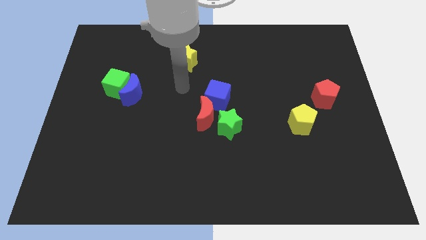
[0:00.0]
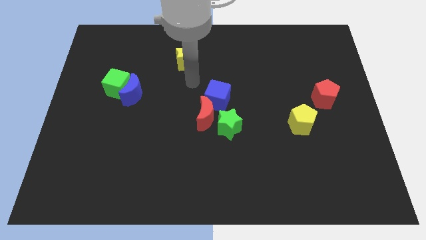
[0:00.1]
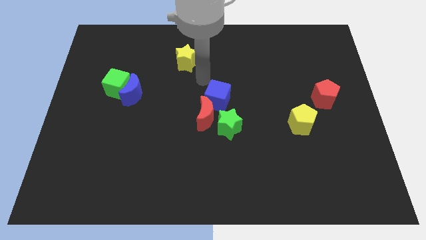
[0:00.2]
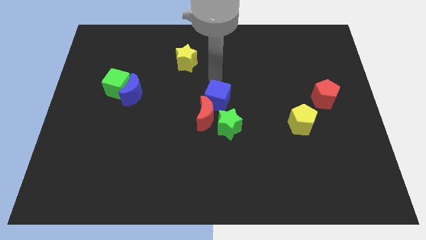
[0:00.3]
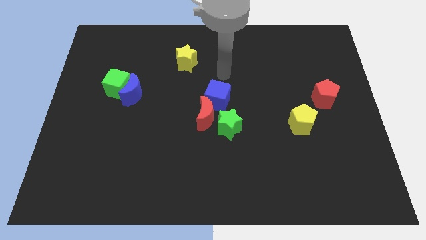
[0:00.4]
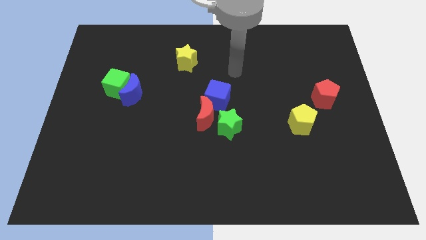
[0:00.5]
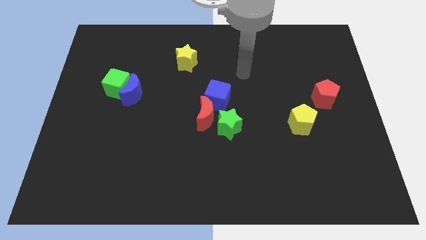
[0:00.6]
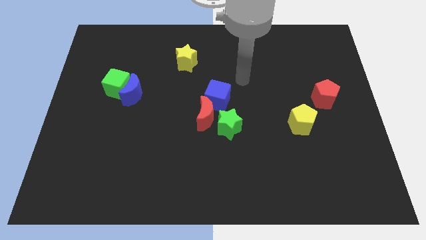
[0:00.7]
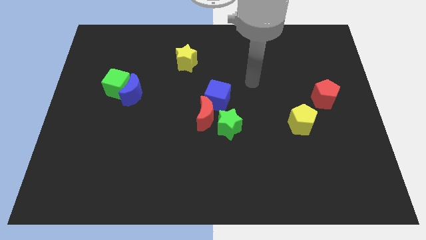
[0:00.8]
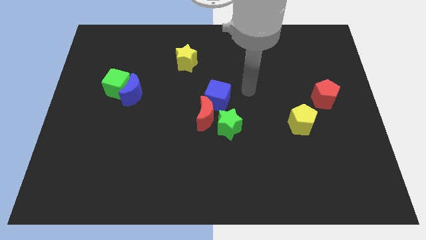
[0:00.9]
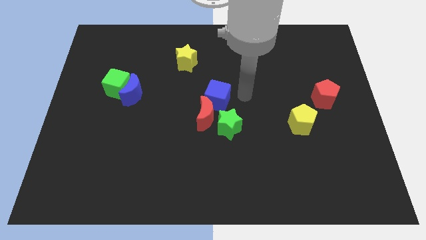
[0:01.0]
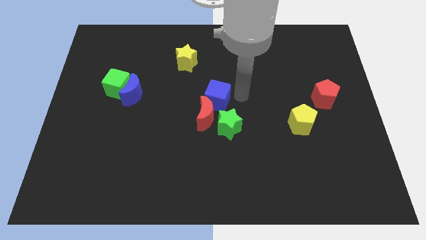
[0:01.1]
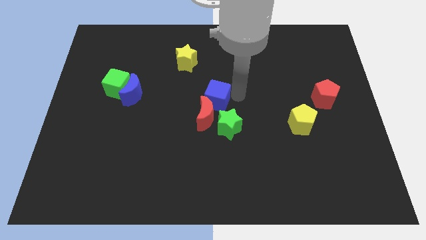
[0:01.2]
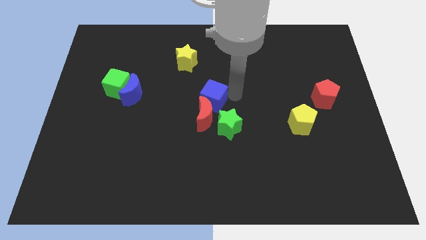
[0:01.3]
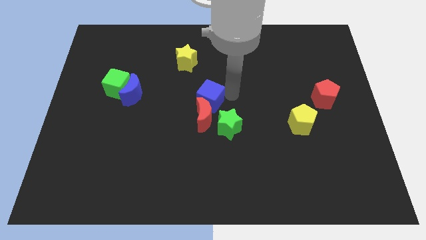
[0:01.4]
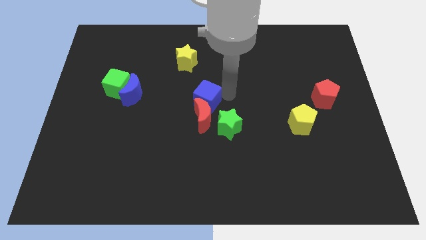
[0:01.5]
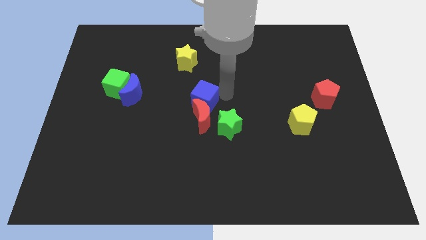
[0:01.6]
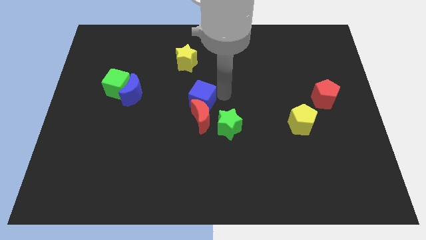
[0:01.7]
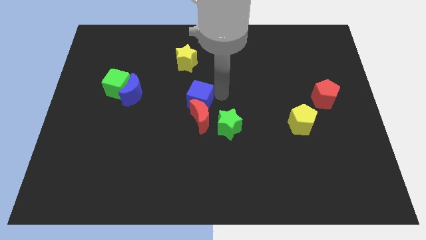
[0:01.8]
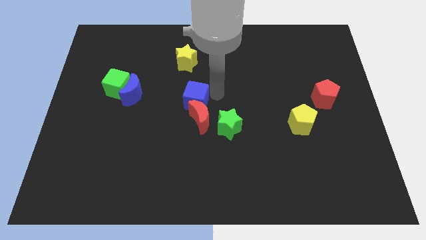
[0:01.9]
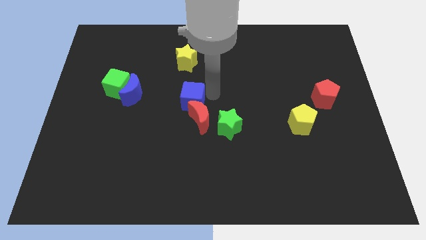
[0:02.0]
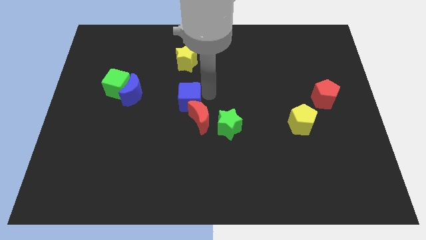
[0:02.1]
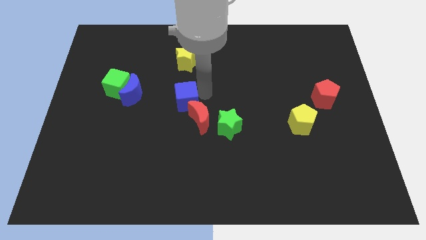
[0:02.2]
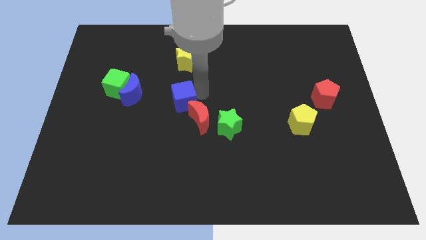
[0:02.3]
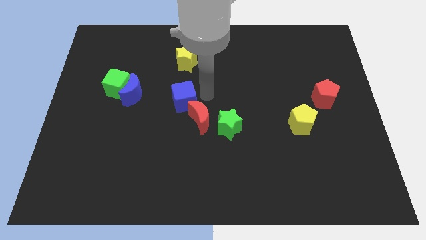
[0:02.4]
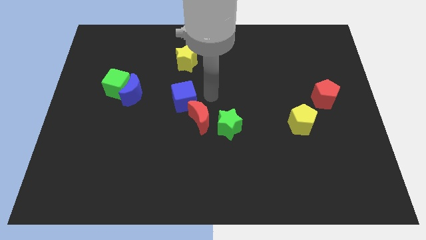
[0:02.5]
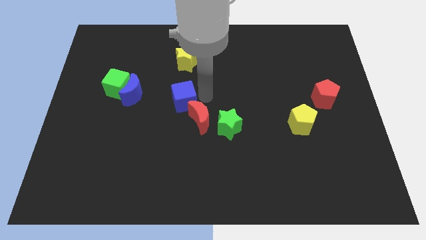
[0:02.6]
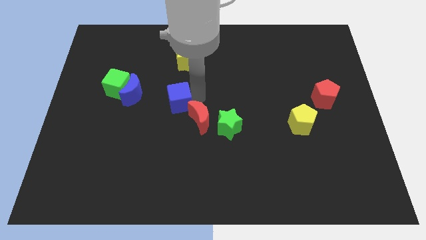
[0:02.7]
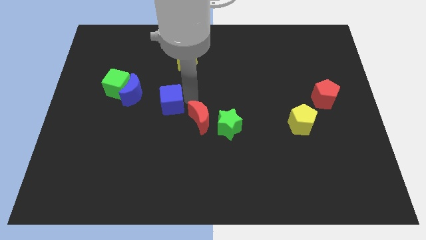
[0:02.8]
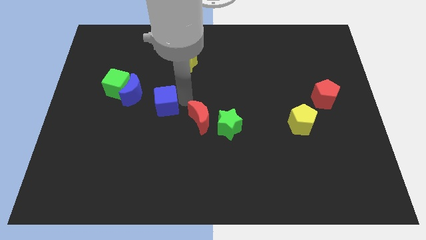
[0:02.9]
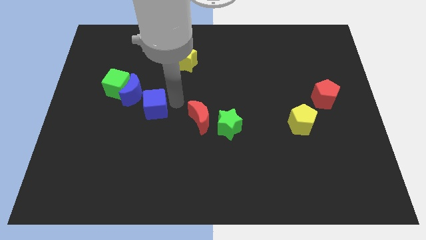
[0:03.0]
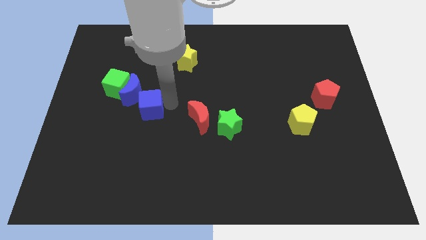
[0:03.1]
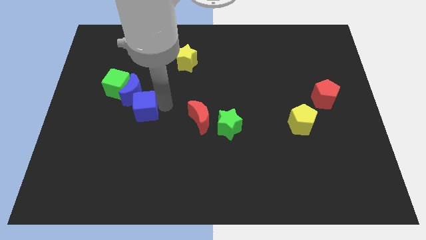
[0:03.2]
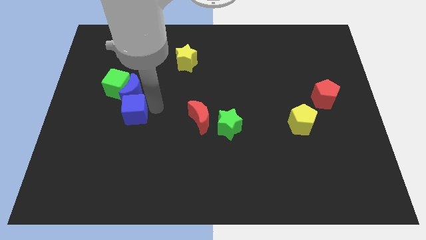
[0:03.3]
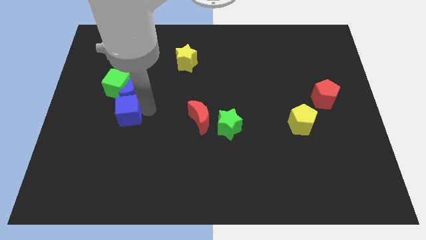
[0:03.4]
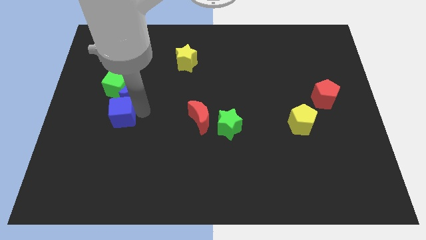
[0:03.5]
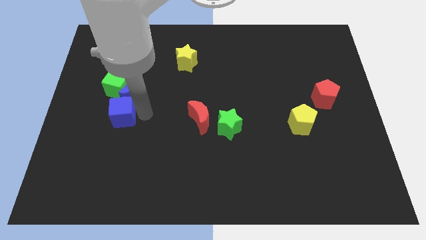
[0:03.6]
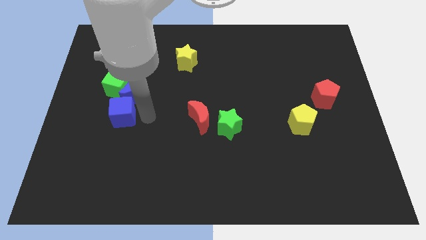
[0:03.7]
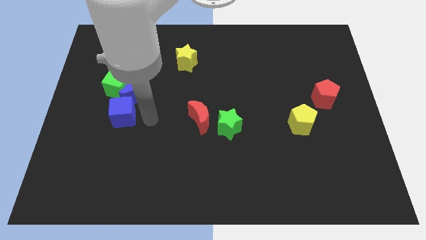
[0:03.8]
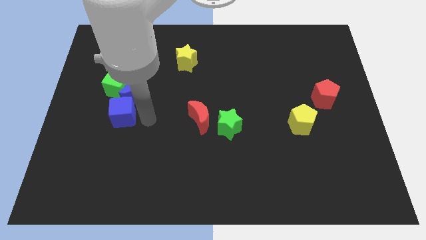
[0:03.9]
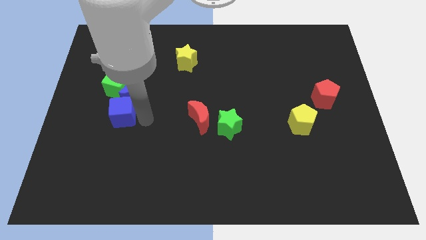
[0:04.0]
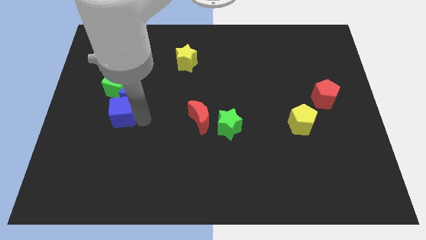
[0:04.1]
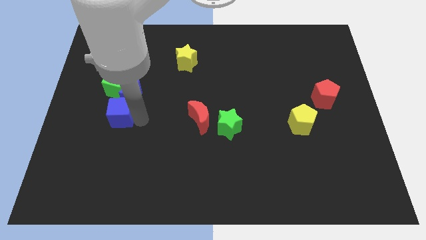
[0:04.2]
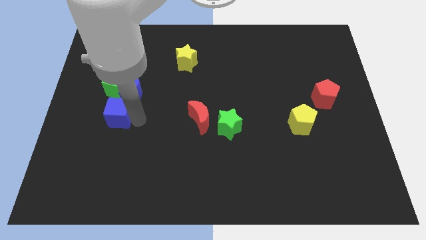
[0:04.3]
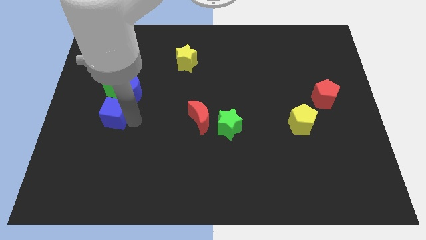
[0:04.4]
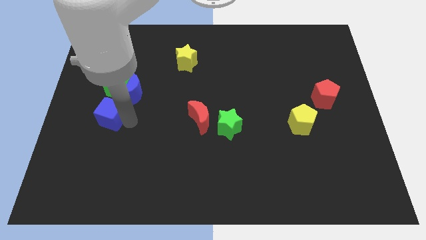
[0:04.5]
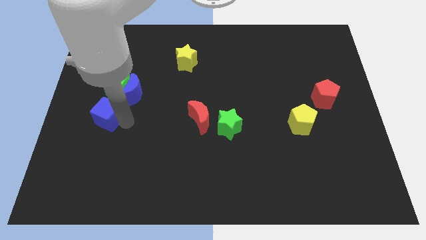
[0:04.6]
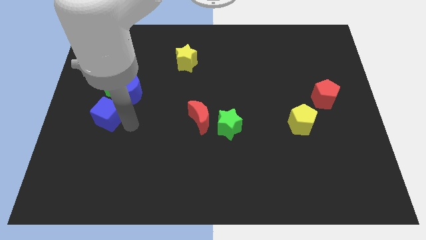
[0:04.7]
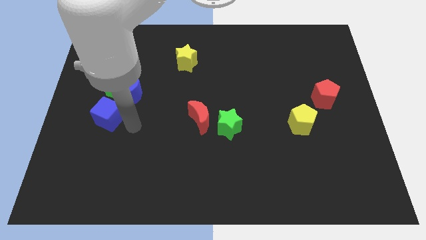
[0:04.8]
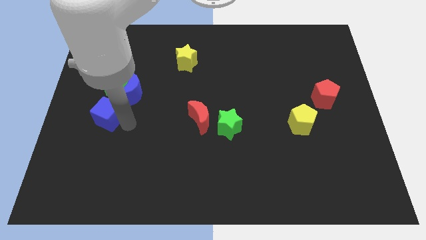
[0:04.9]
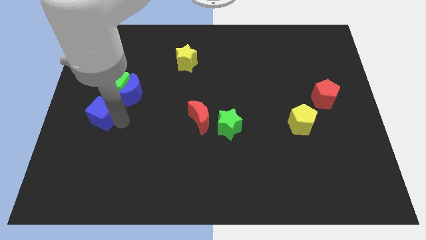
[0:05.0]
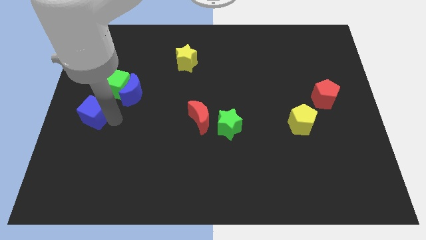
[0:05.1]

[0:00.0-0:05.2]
slide the blue cube to the left side of the board
